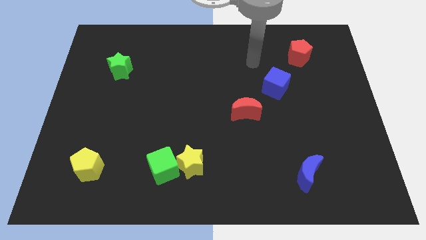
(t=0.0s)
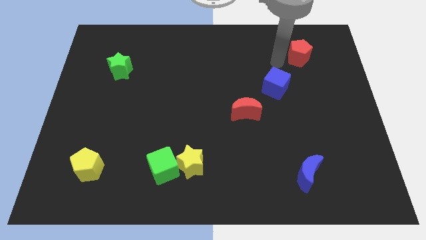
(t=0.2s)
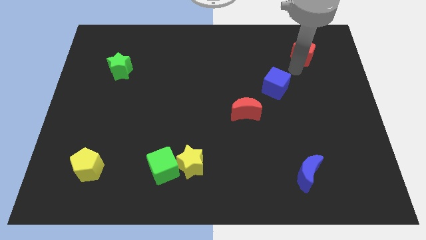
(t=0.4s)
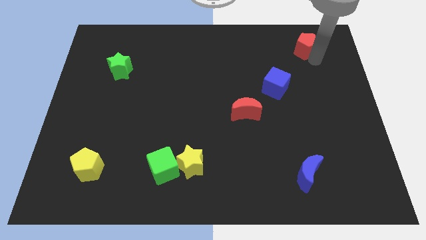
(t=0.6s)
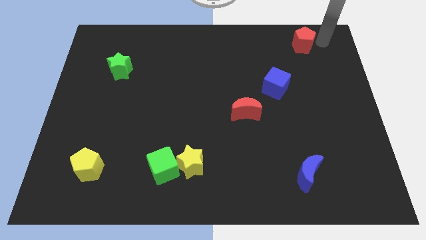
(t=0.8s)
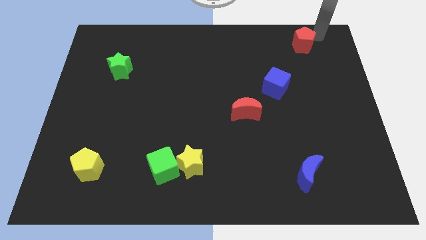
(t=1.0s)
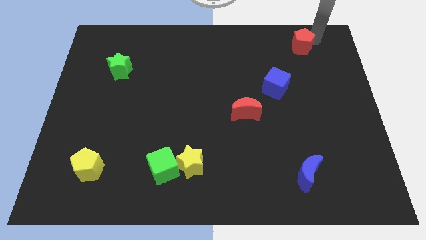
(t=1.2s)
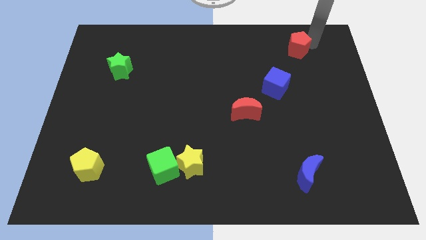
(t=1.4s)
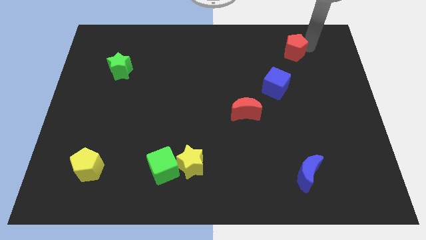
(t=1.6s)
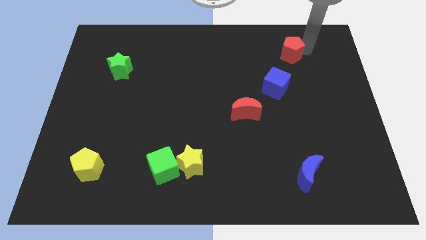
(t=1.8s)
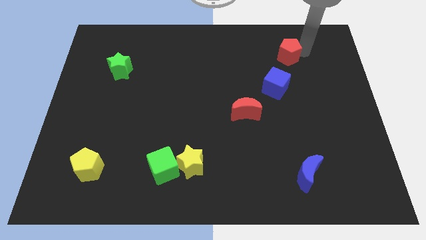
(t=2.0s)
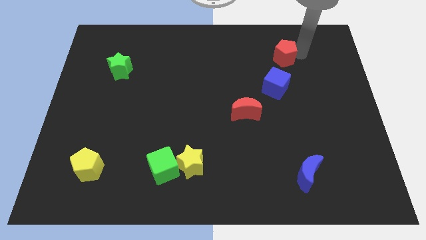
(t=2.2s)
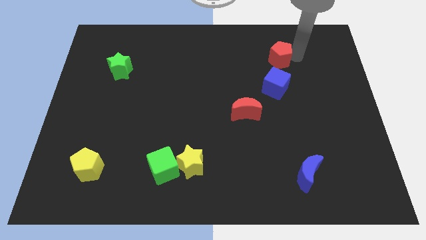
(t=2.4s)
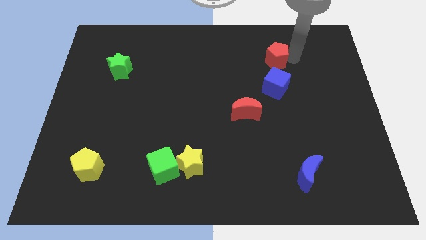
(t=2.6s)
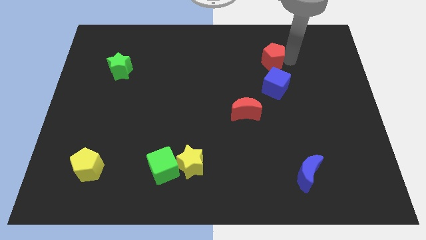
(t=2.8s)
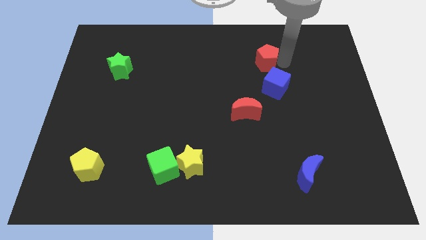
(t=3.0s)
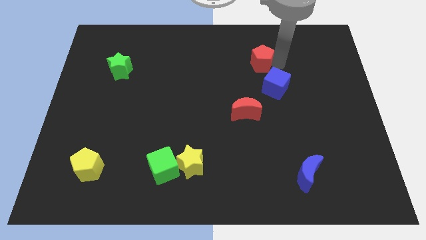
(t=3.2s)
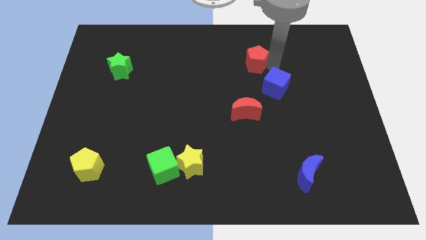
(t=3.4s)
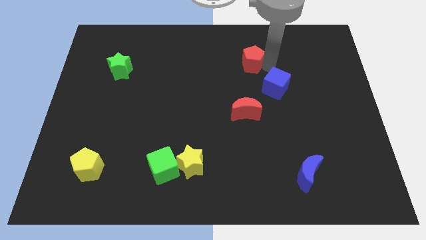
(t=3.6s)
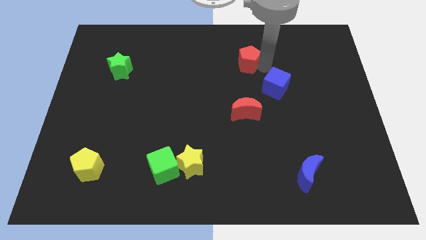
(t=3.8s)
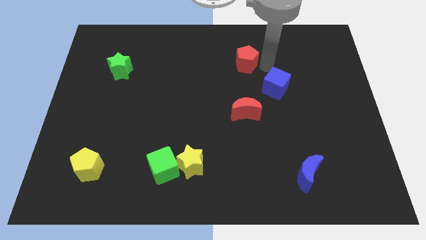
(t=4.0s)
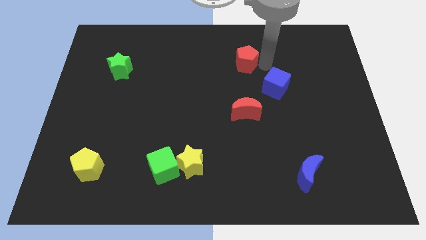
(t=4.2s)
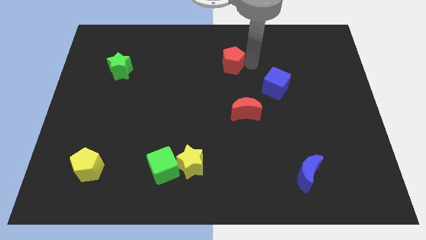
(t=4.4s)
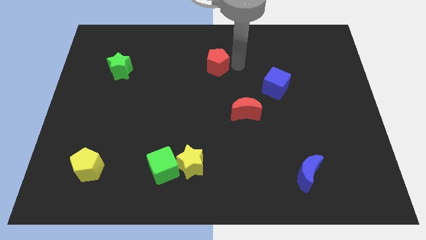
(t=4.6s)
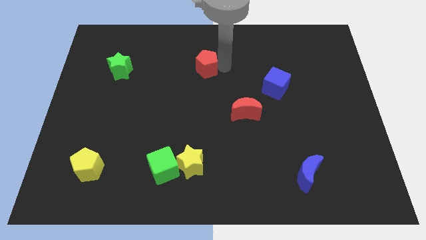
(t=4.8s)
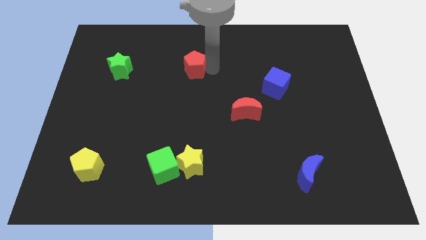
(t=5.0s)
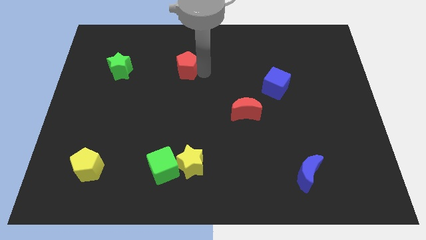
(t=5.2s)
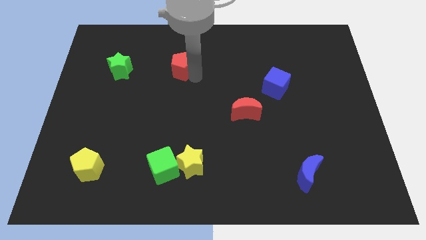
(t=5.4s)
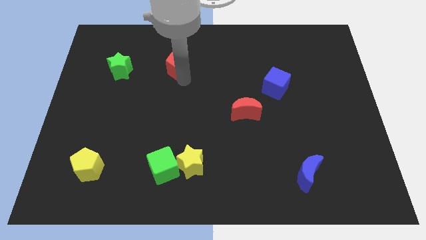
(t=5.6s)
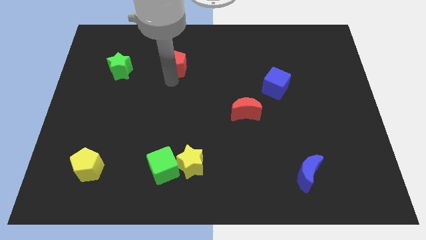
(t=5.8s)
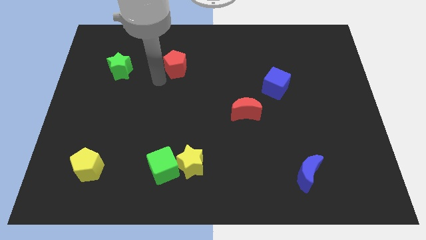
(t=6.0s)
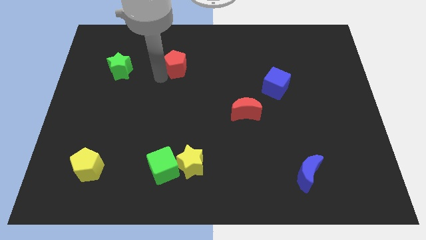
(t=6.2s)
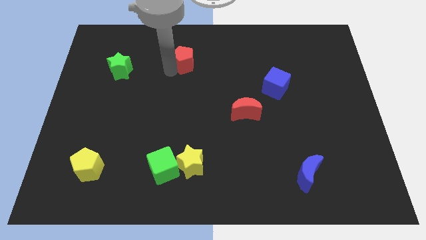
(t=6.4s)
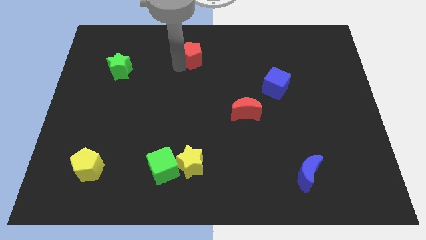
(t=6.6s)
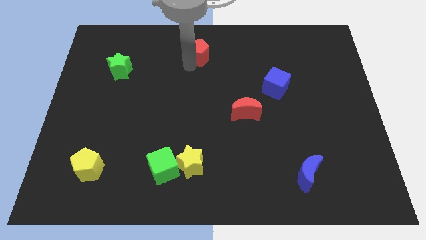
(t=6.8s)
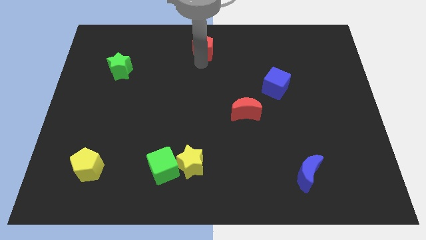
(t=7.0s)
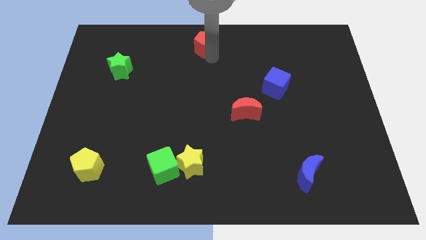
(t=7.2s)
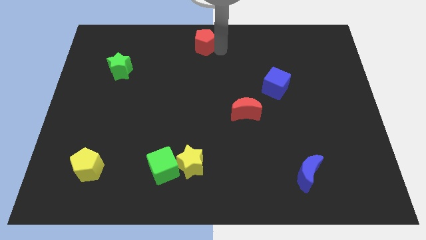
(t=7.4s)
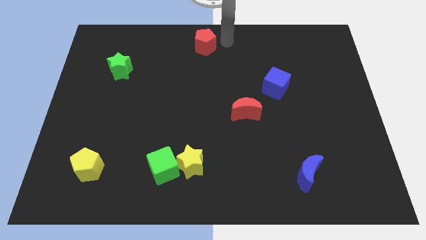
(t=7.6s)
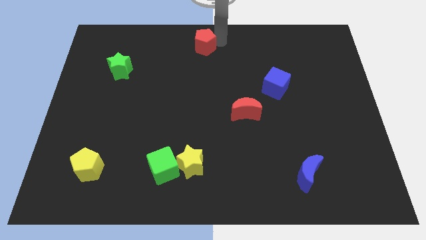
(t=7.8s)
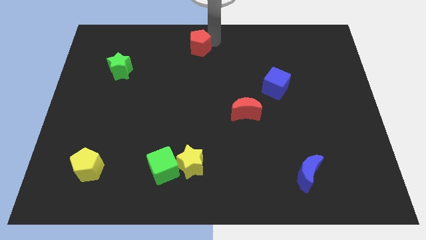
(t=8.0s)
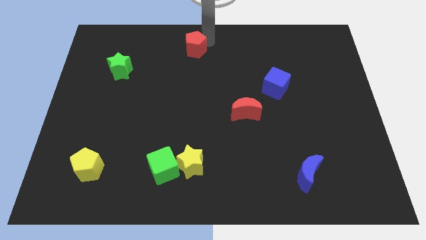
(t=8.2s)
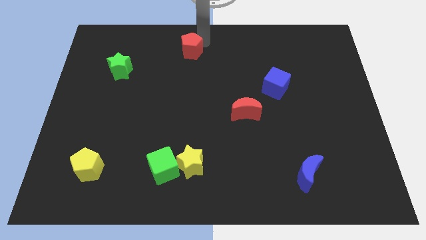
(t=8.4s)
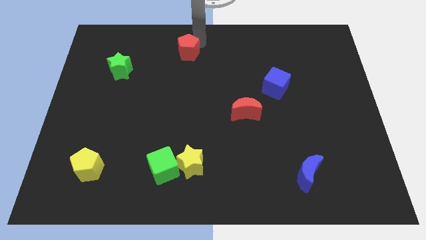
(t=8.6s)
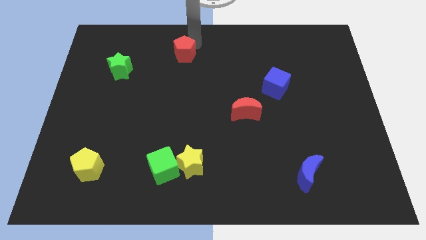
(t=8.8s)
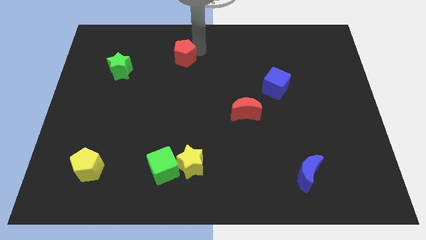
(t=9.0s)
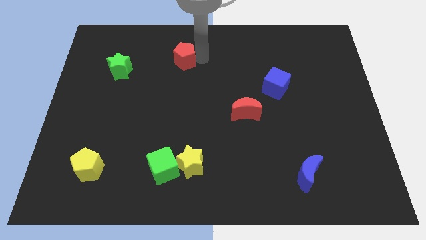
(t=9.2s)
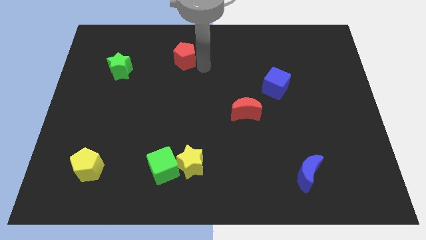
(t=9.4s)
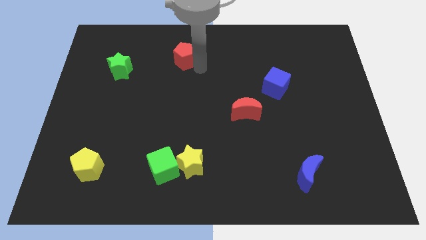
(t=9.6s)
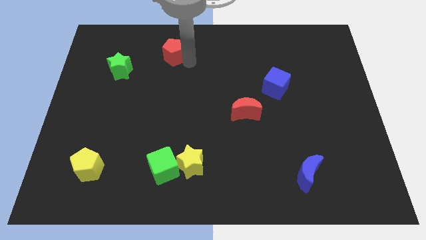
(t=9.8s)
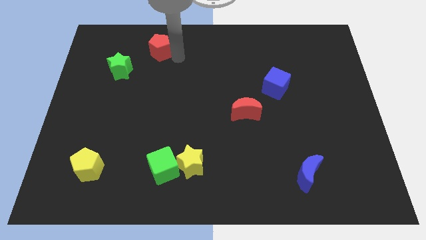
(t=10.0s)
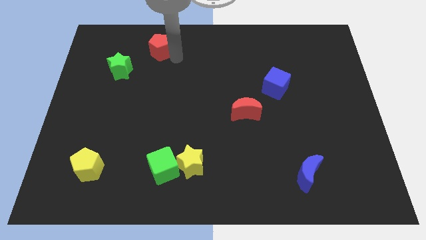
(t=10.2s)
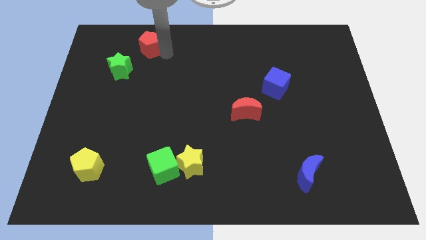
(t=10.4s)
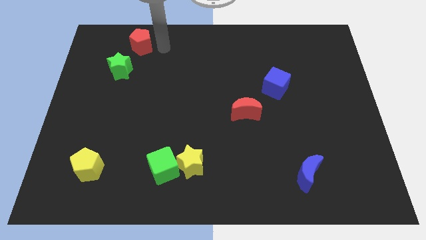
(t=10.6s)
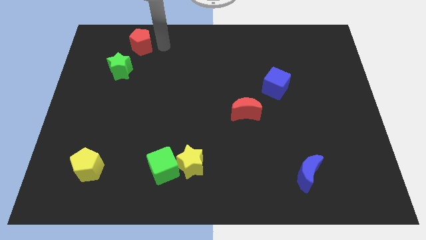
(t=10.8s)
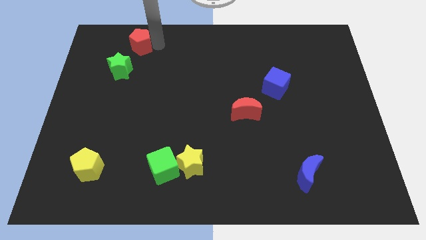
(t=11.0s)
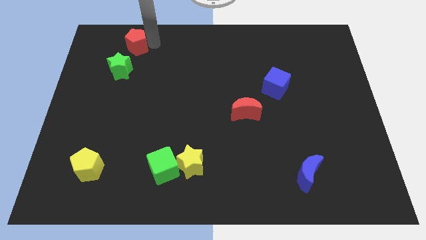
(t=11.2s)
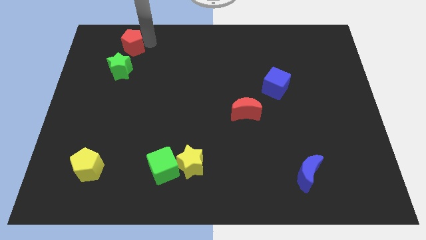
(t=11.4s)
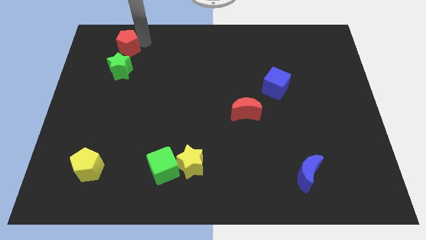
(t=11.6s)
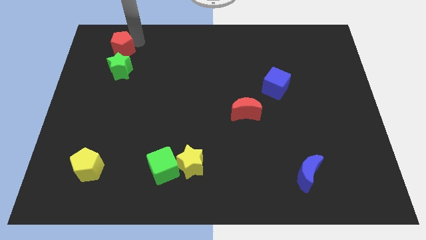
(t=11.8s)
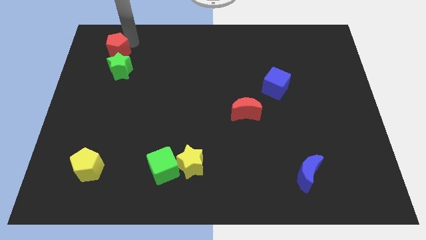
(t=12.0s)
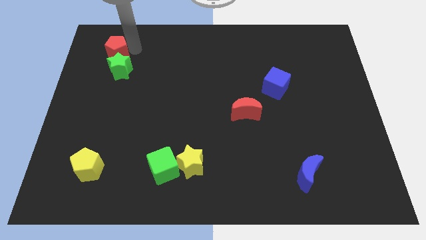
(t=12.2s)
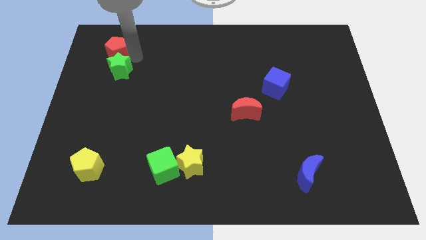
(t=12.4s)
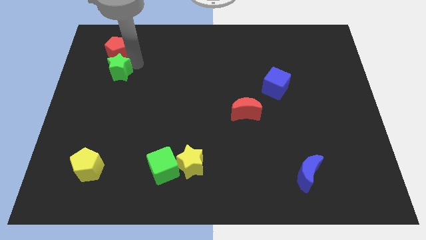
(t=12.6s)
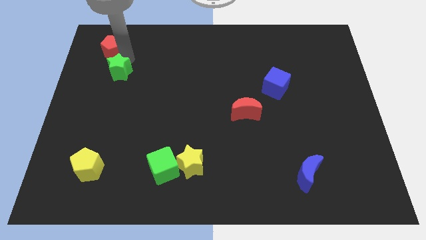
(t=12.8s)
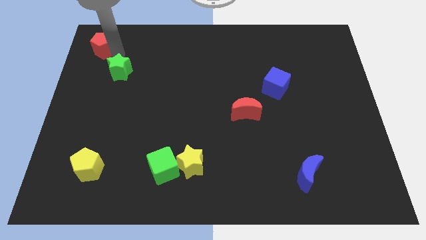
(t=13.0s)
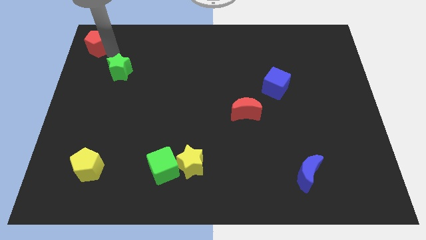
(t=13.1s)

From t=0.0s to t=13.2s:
push the red pentagon to the upper left corner
